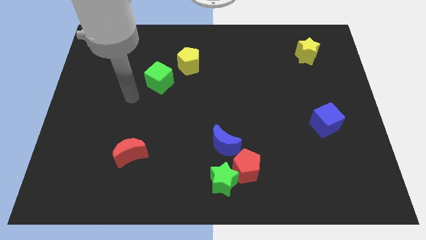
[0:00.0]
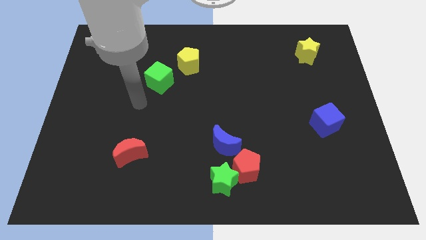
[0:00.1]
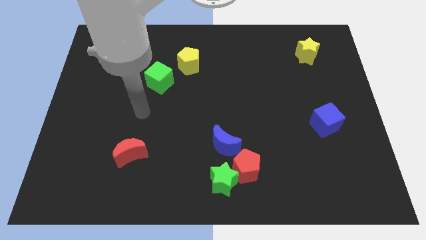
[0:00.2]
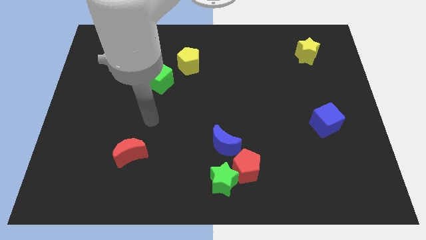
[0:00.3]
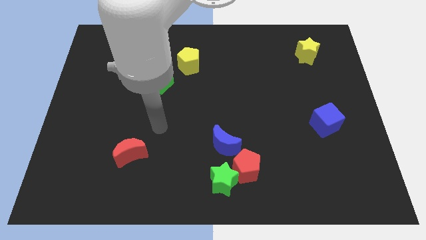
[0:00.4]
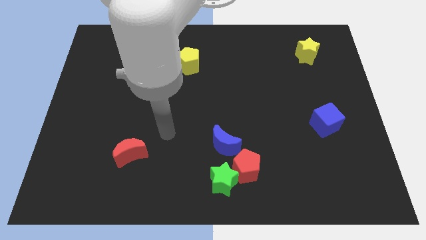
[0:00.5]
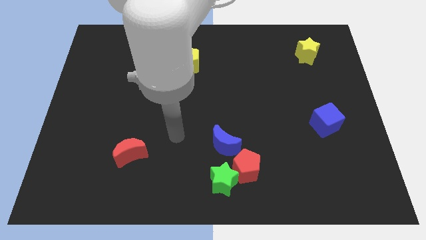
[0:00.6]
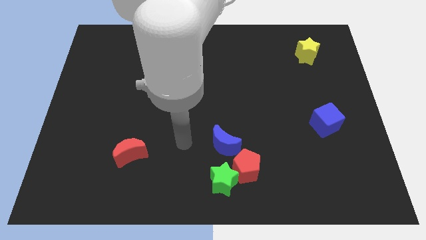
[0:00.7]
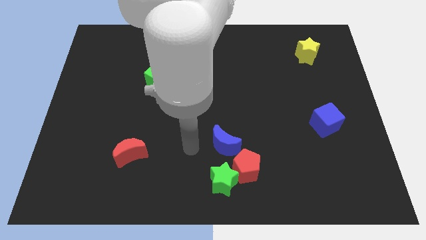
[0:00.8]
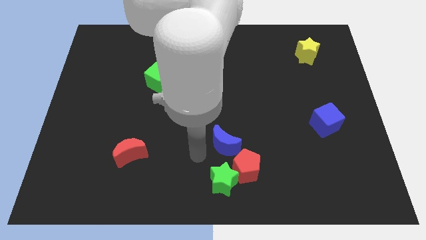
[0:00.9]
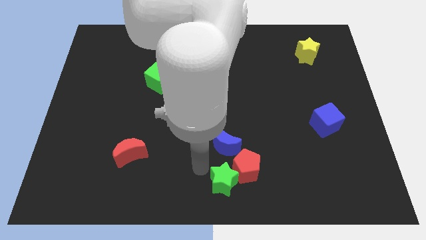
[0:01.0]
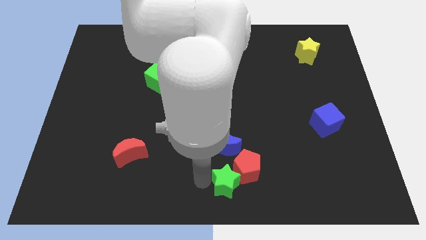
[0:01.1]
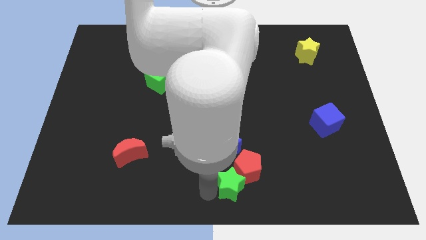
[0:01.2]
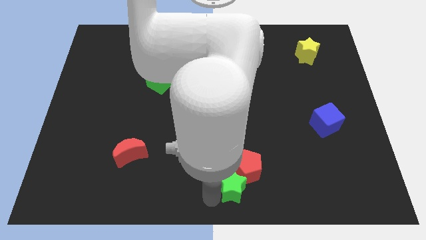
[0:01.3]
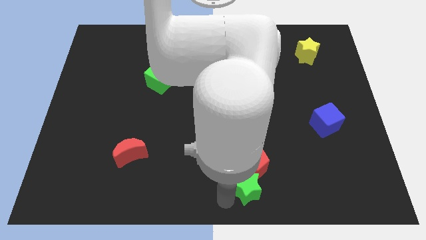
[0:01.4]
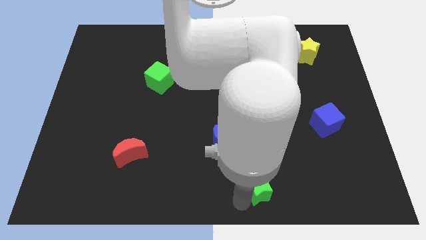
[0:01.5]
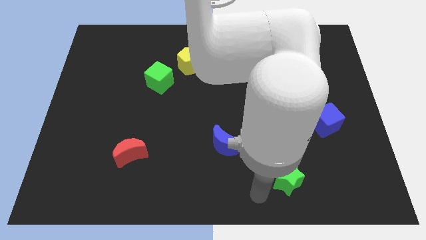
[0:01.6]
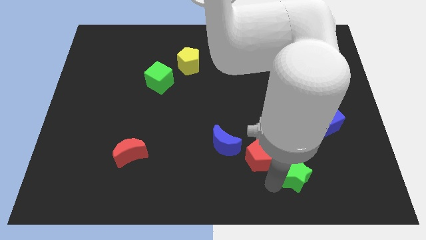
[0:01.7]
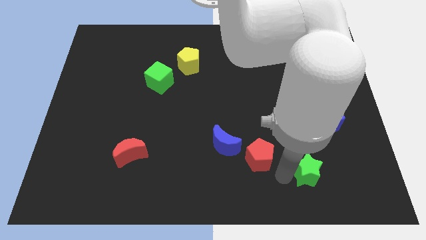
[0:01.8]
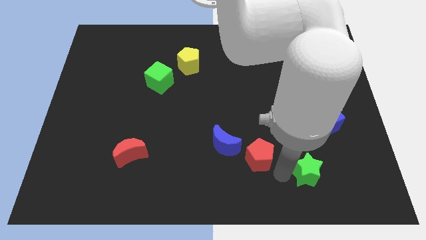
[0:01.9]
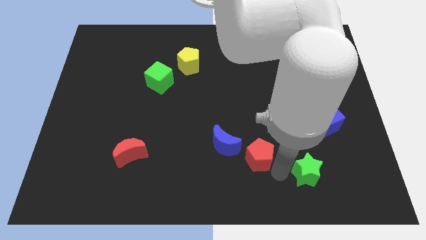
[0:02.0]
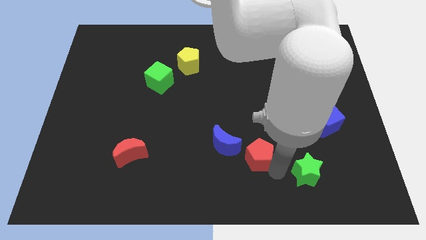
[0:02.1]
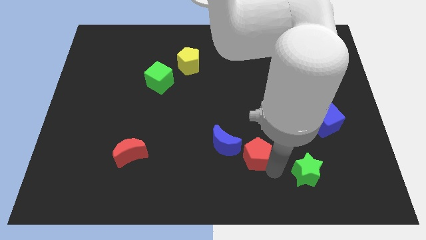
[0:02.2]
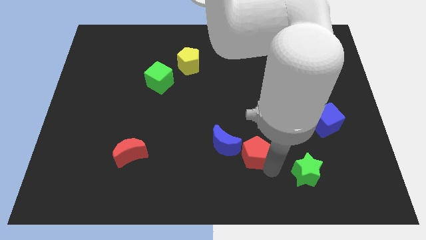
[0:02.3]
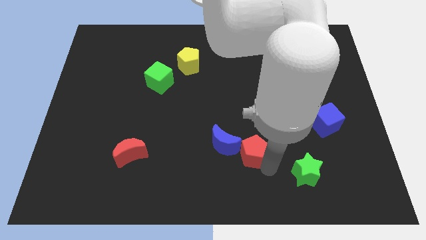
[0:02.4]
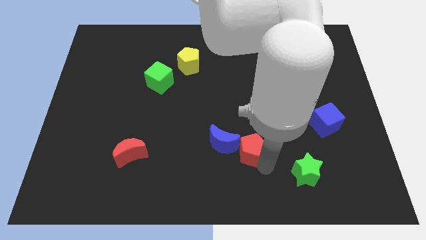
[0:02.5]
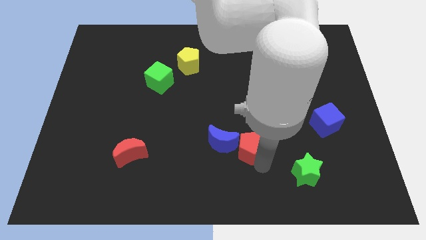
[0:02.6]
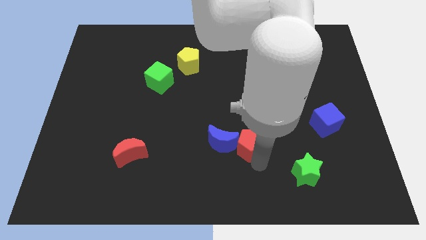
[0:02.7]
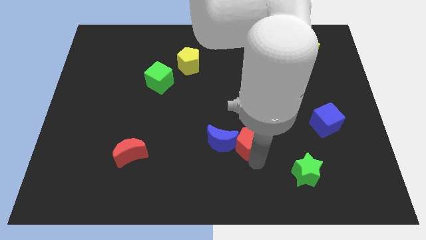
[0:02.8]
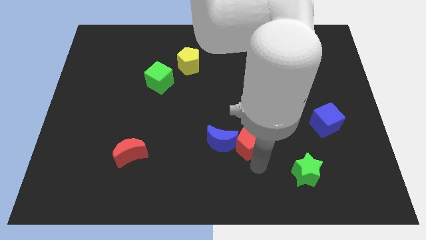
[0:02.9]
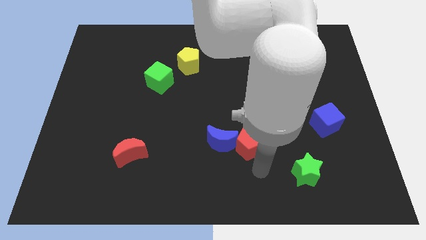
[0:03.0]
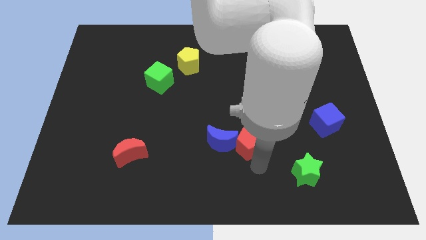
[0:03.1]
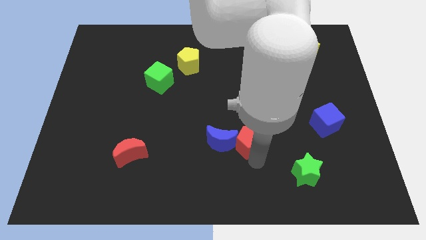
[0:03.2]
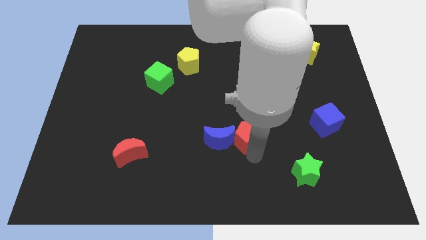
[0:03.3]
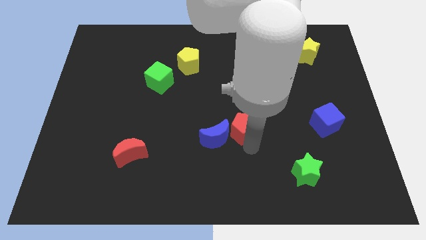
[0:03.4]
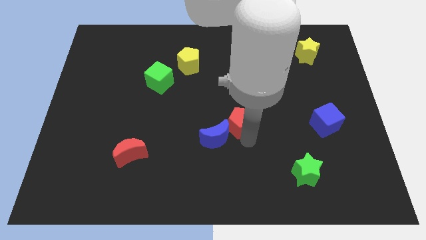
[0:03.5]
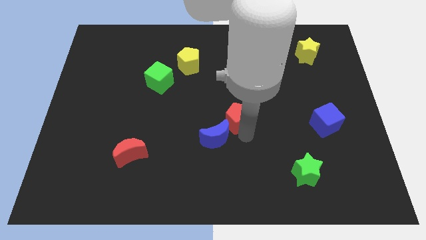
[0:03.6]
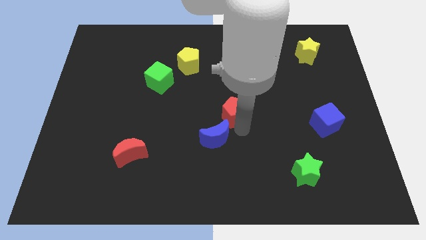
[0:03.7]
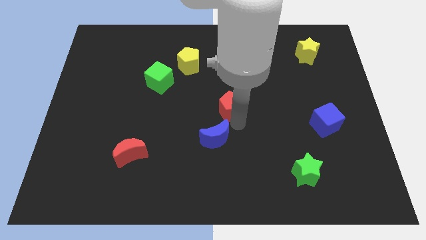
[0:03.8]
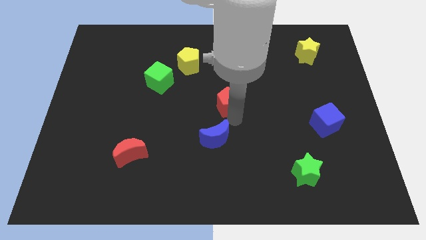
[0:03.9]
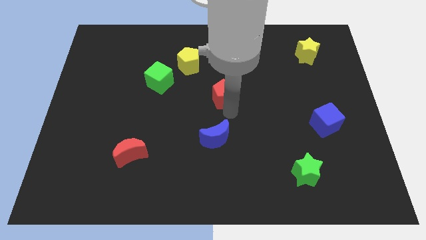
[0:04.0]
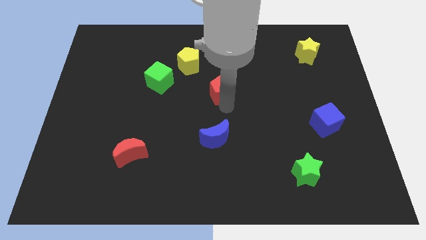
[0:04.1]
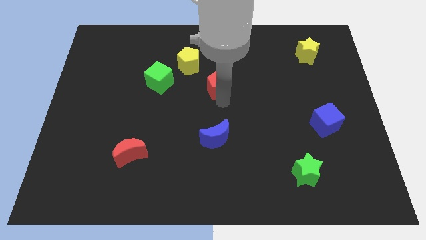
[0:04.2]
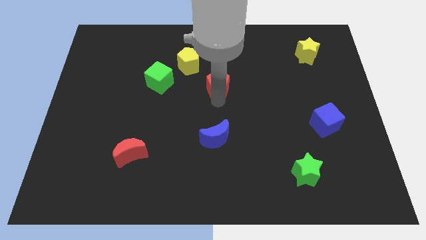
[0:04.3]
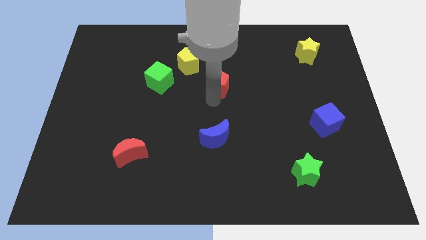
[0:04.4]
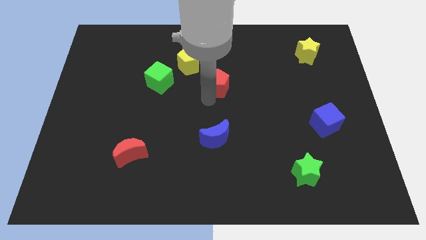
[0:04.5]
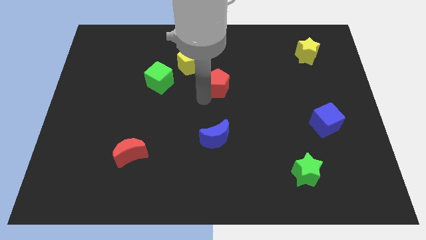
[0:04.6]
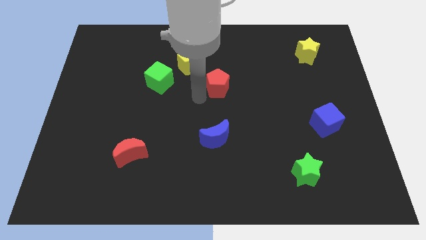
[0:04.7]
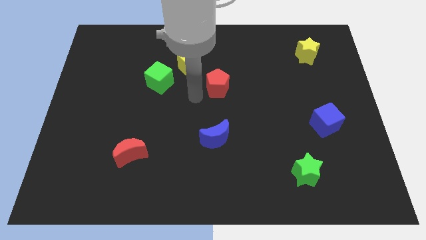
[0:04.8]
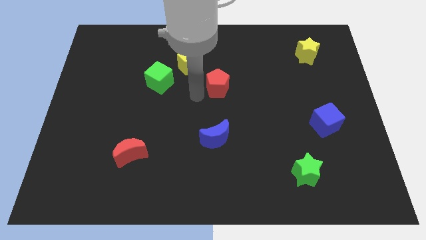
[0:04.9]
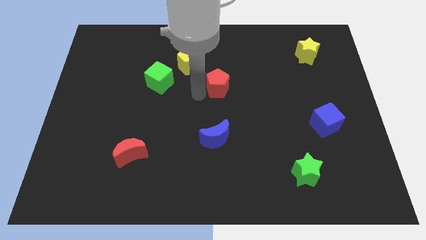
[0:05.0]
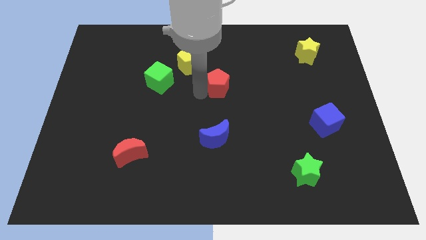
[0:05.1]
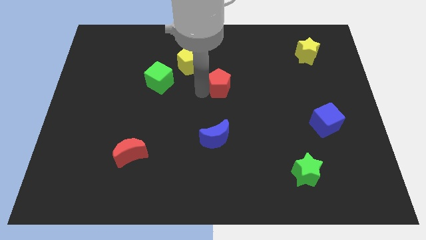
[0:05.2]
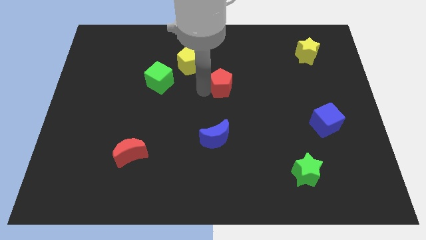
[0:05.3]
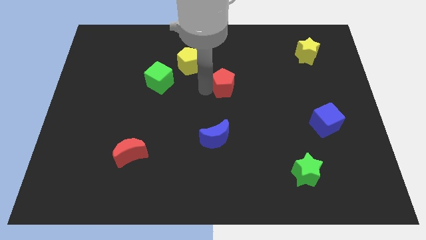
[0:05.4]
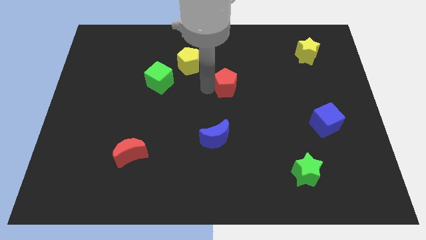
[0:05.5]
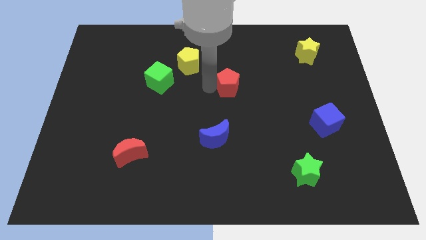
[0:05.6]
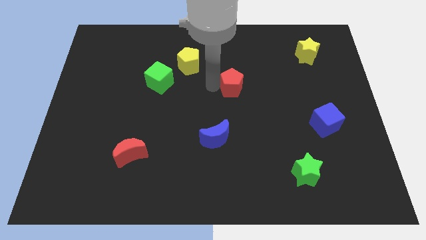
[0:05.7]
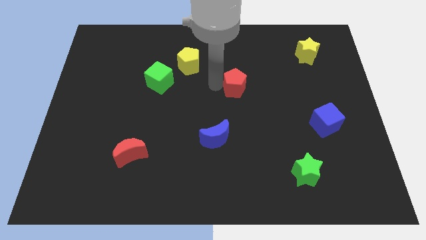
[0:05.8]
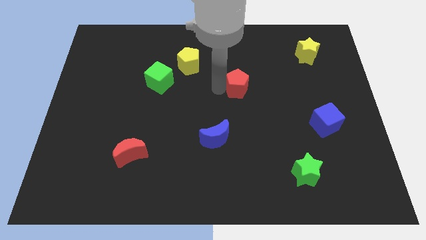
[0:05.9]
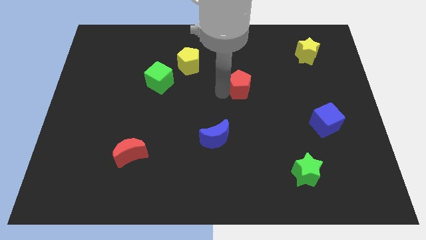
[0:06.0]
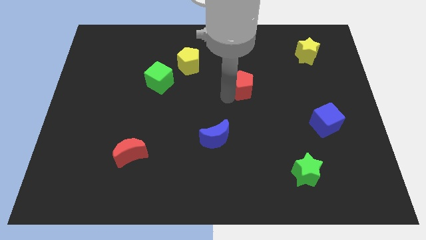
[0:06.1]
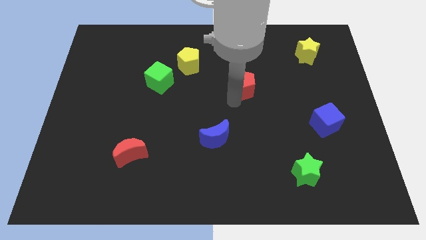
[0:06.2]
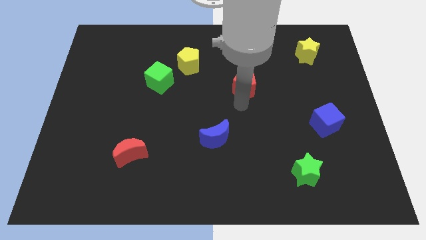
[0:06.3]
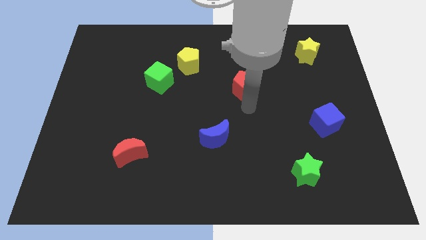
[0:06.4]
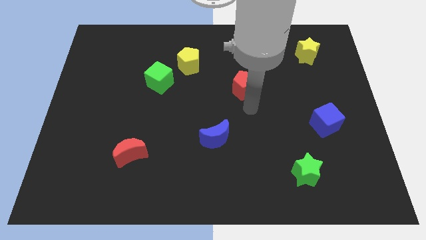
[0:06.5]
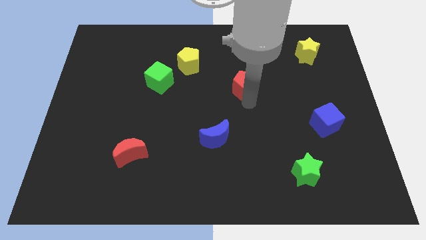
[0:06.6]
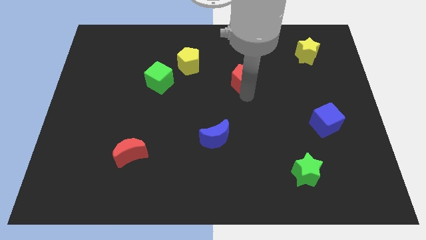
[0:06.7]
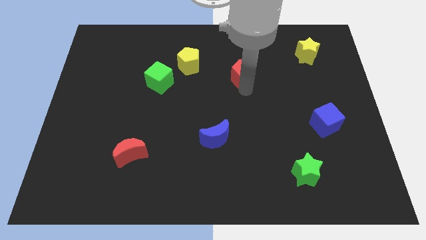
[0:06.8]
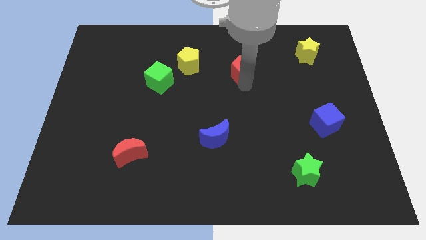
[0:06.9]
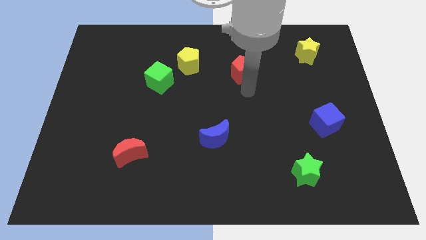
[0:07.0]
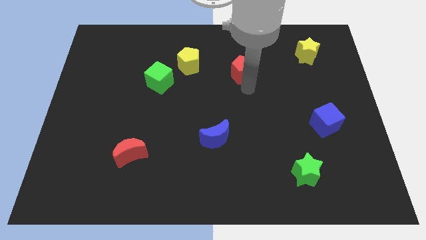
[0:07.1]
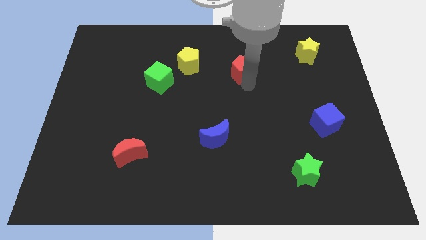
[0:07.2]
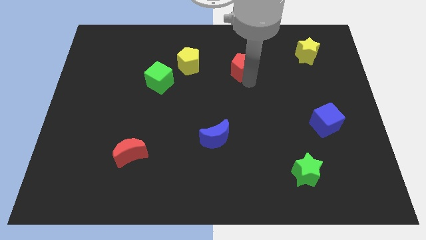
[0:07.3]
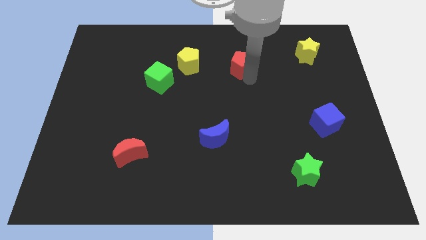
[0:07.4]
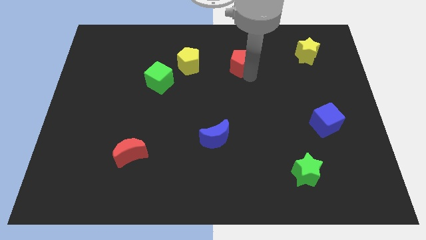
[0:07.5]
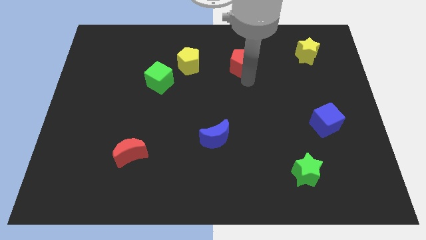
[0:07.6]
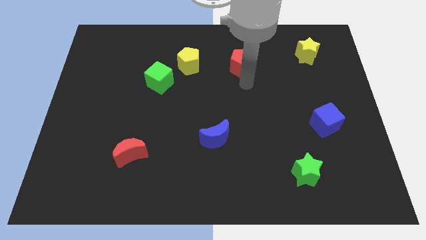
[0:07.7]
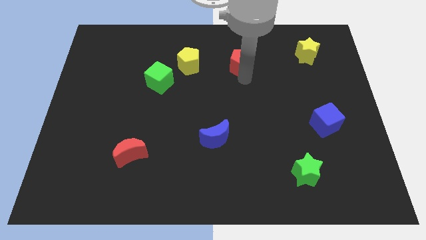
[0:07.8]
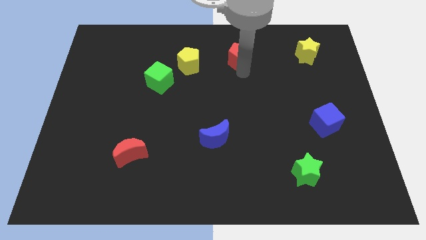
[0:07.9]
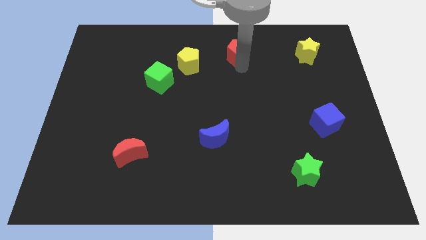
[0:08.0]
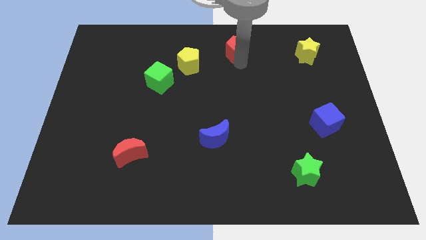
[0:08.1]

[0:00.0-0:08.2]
move the red pentagon to the top side
